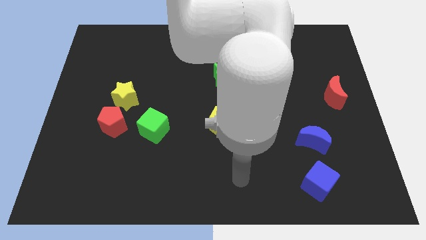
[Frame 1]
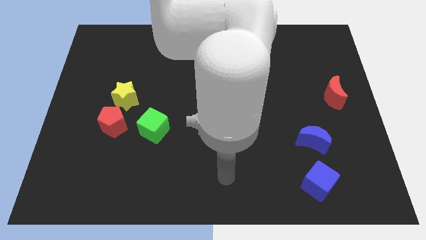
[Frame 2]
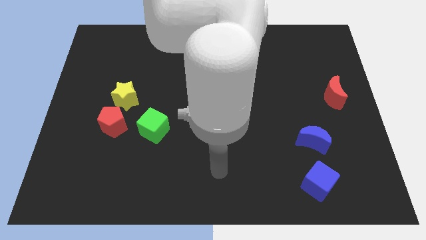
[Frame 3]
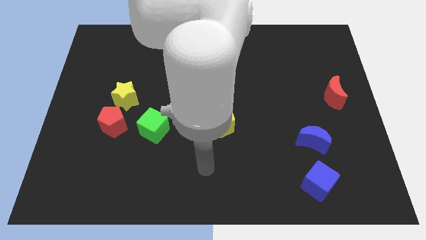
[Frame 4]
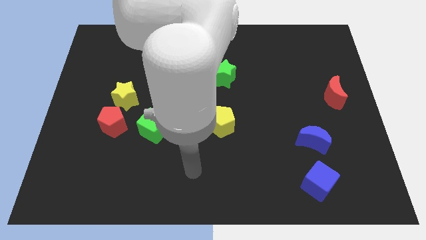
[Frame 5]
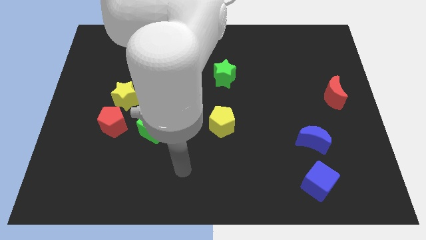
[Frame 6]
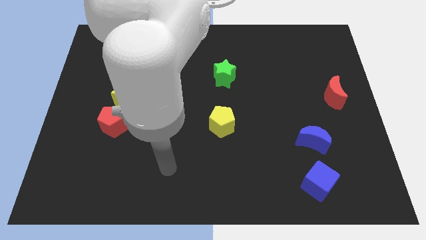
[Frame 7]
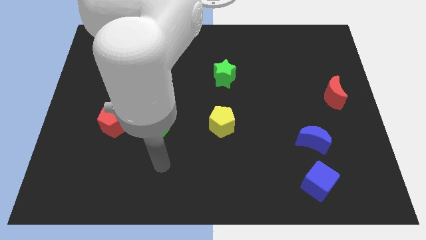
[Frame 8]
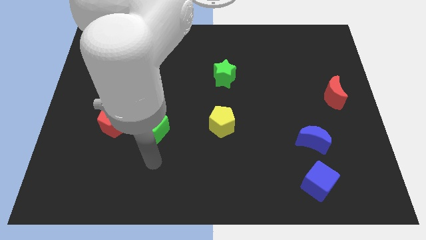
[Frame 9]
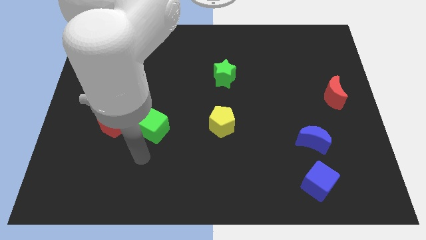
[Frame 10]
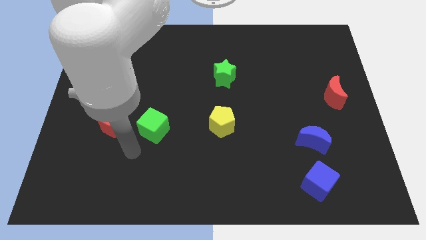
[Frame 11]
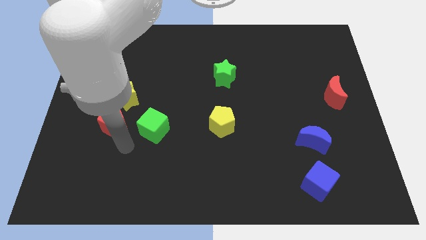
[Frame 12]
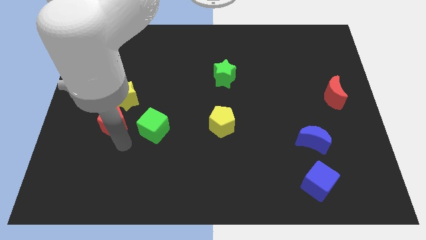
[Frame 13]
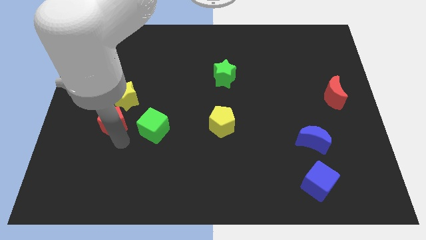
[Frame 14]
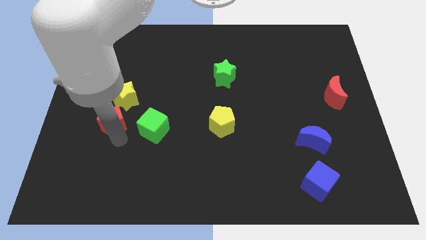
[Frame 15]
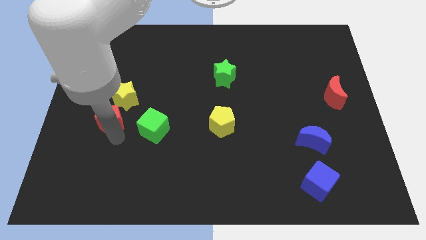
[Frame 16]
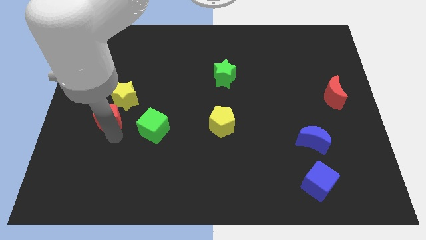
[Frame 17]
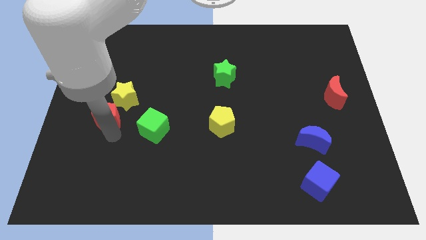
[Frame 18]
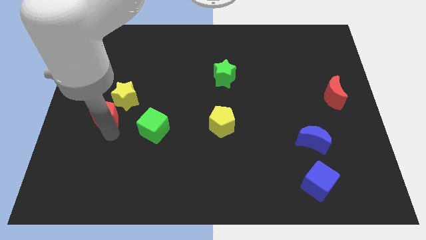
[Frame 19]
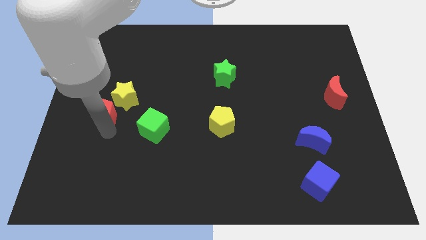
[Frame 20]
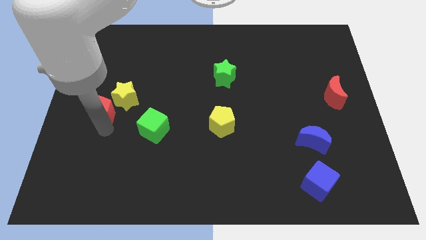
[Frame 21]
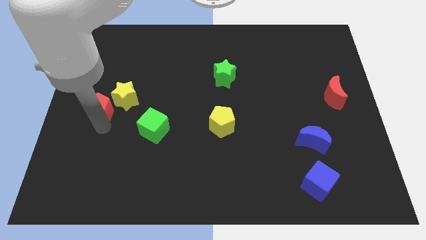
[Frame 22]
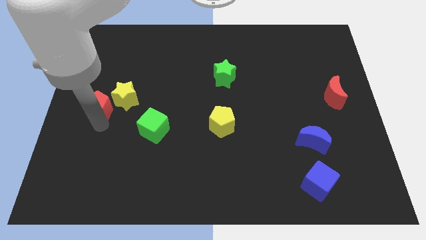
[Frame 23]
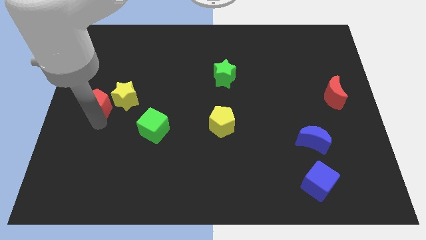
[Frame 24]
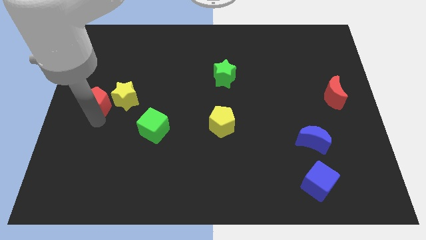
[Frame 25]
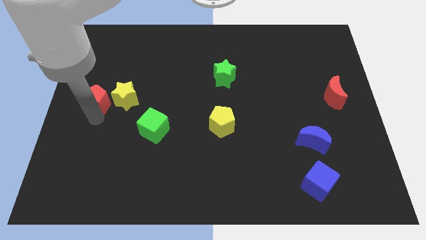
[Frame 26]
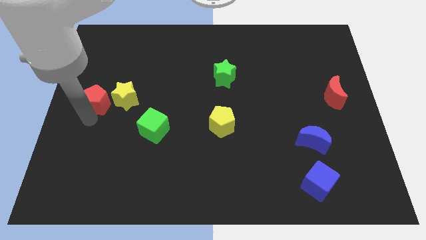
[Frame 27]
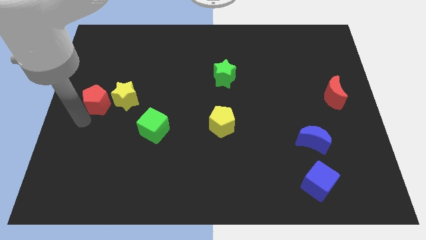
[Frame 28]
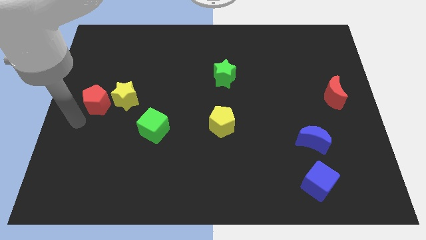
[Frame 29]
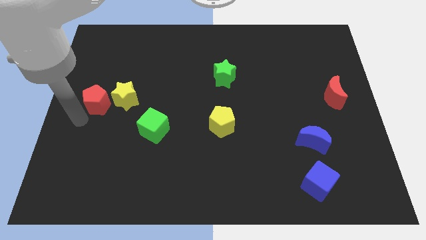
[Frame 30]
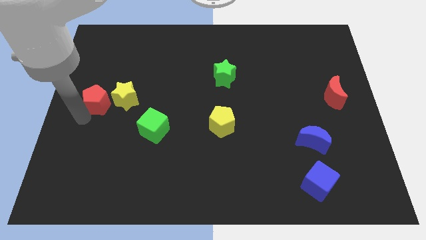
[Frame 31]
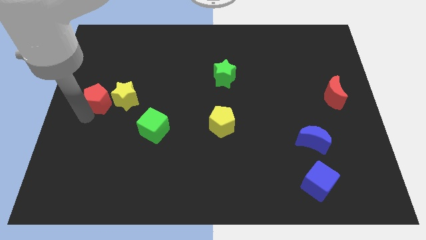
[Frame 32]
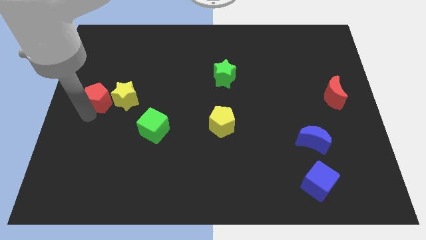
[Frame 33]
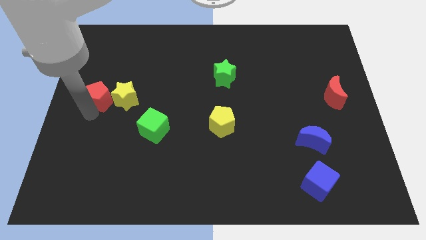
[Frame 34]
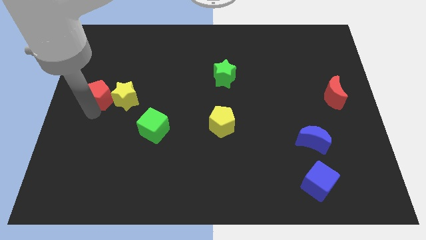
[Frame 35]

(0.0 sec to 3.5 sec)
move the red pentagon a little up

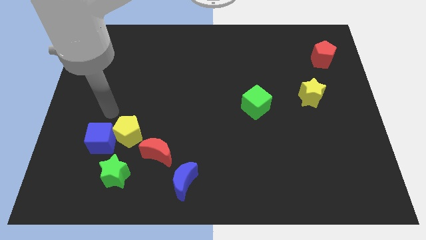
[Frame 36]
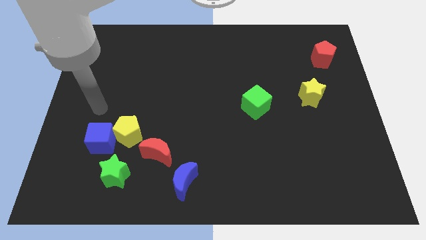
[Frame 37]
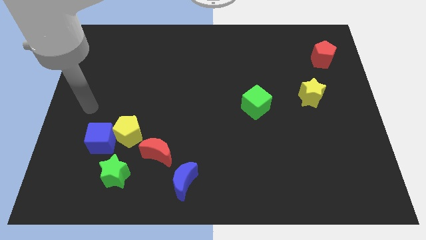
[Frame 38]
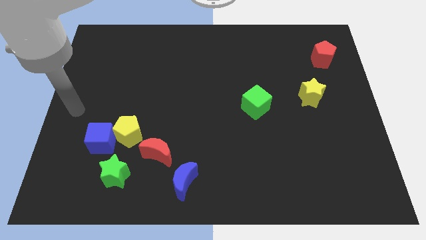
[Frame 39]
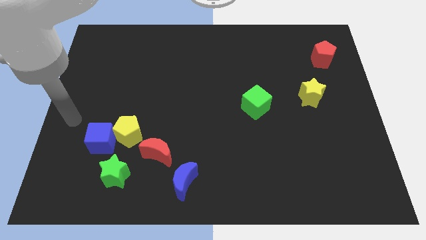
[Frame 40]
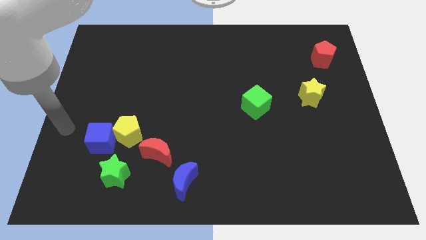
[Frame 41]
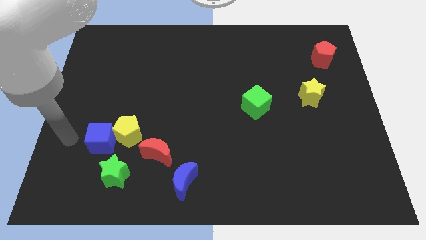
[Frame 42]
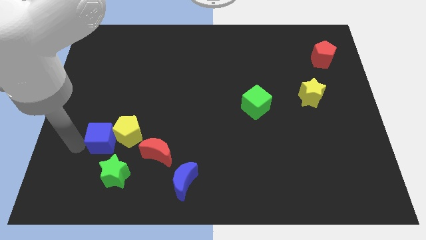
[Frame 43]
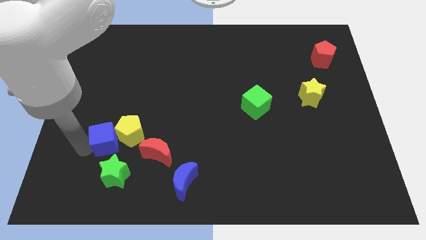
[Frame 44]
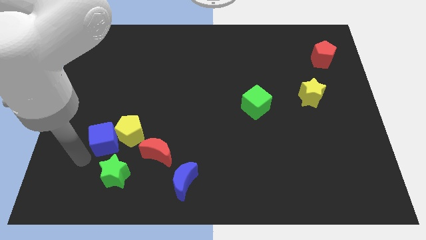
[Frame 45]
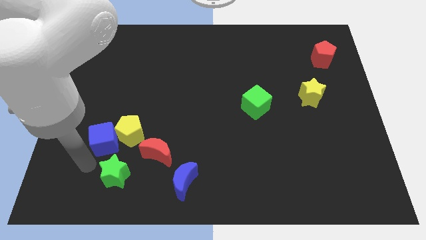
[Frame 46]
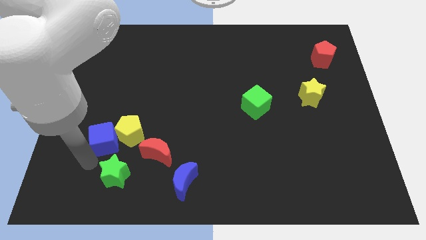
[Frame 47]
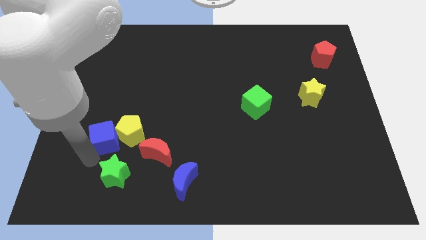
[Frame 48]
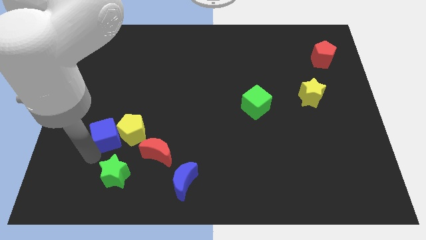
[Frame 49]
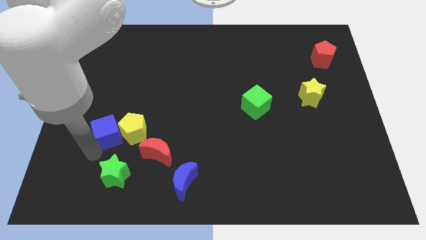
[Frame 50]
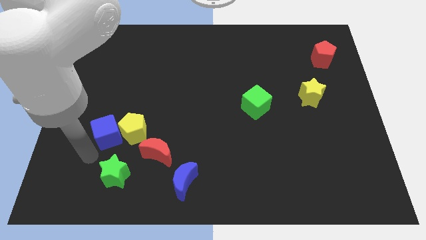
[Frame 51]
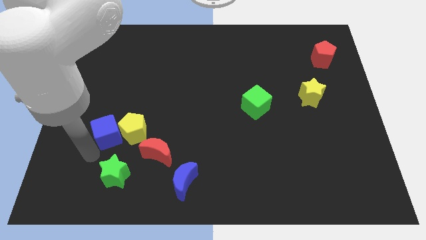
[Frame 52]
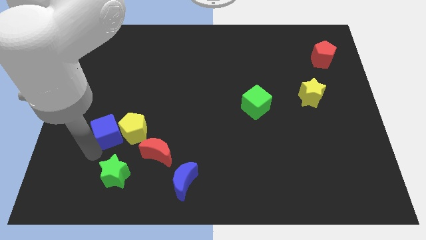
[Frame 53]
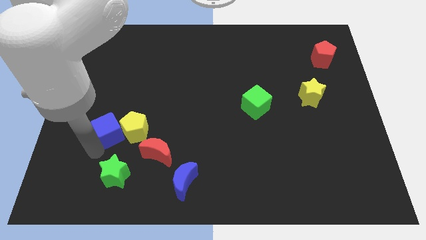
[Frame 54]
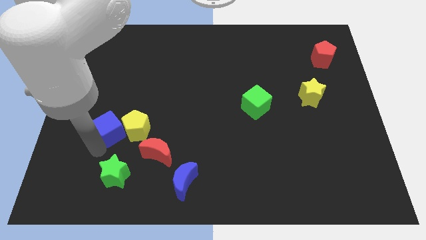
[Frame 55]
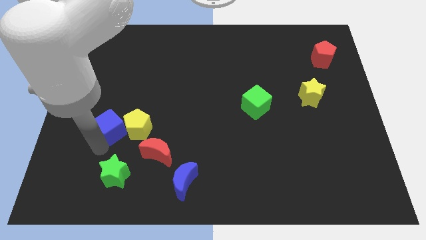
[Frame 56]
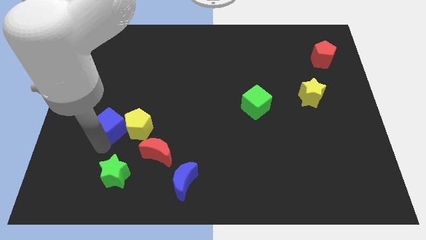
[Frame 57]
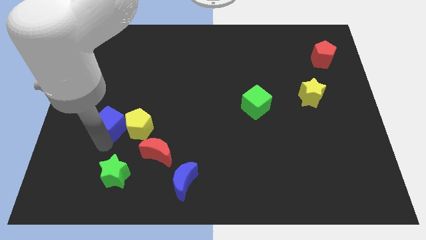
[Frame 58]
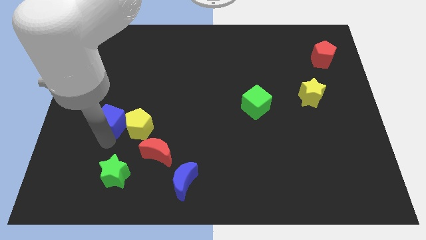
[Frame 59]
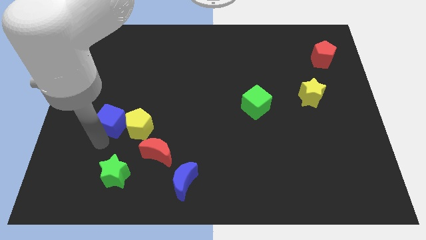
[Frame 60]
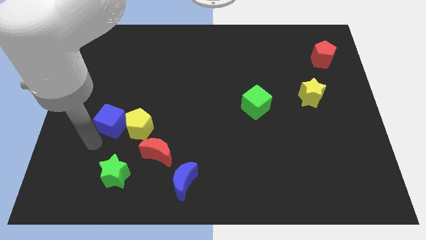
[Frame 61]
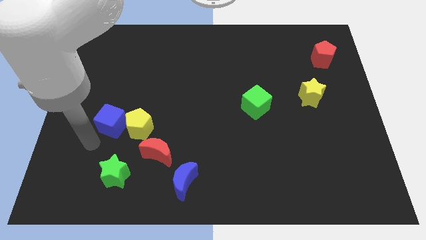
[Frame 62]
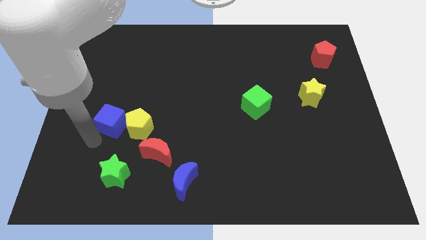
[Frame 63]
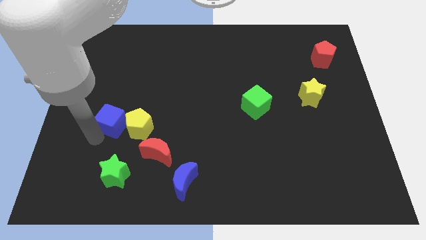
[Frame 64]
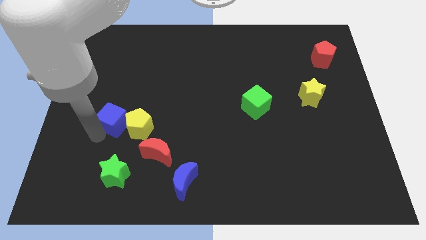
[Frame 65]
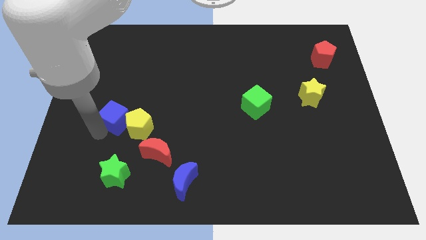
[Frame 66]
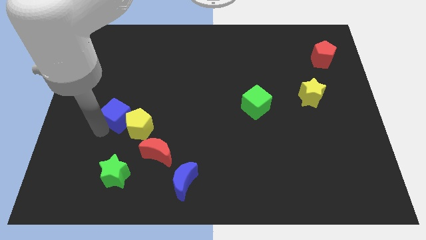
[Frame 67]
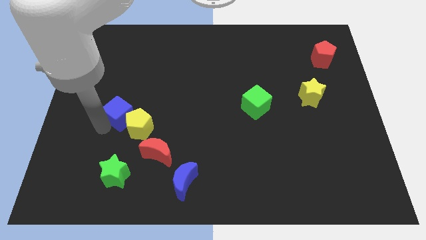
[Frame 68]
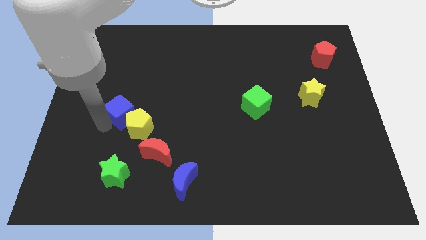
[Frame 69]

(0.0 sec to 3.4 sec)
move the blue cube diagonally upwards and right a little bit

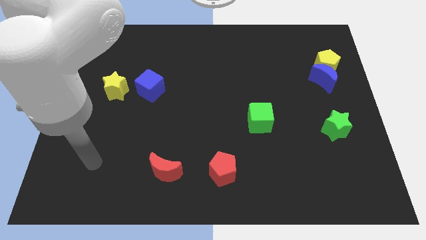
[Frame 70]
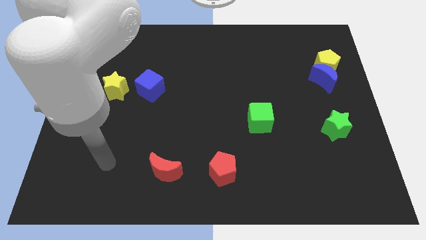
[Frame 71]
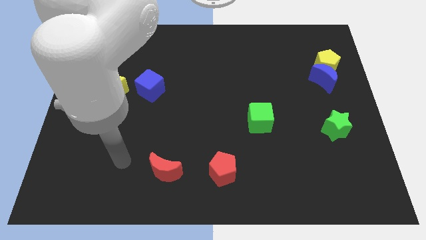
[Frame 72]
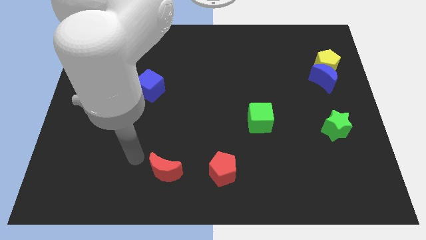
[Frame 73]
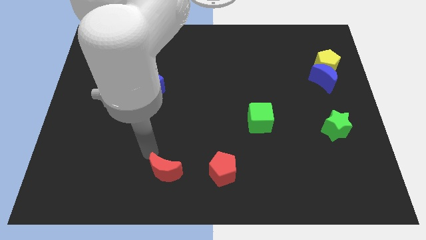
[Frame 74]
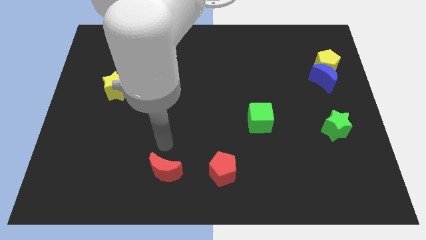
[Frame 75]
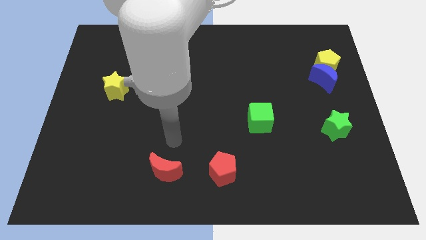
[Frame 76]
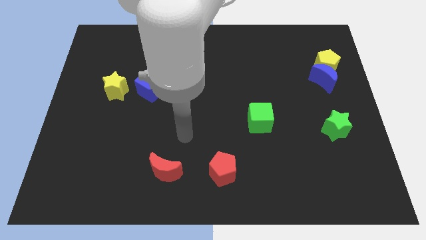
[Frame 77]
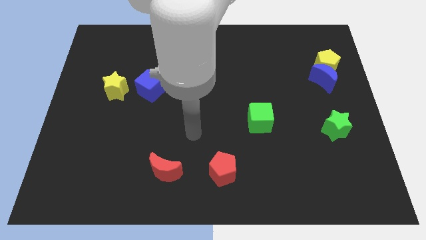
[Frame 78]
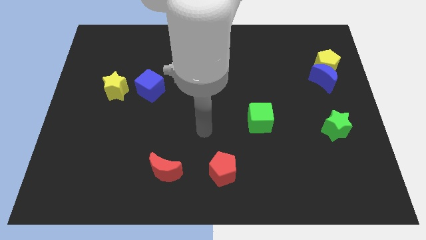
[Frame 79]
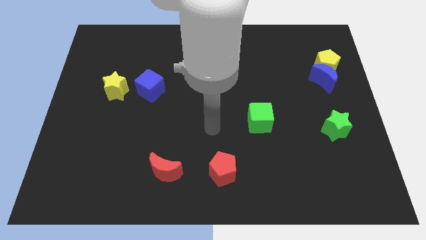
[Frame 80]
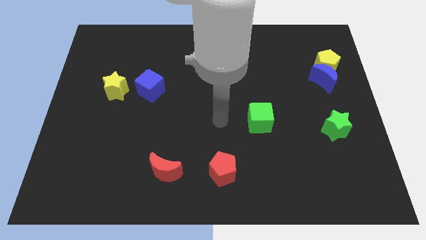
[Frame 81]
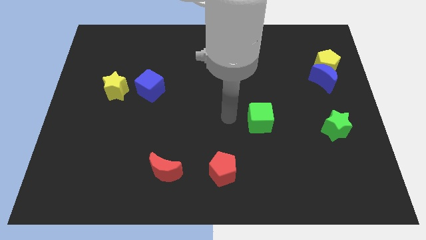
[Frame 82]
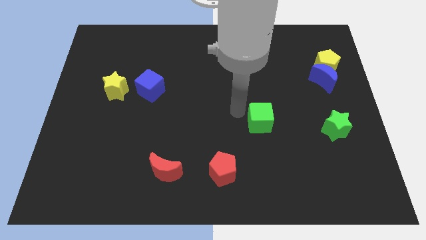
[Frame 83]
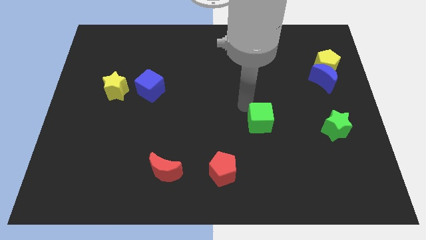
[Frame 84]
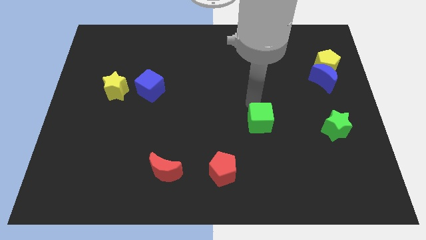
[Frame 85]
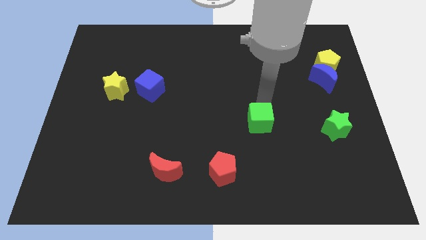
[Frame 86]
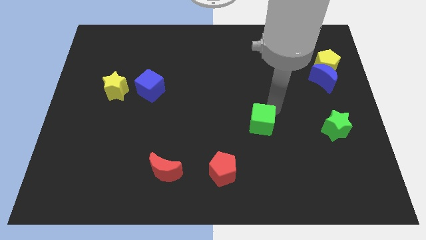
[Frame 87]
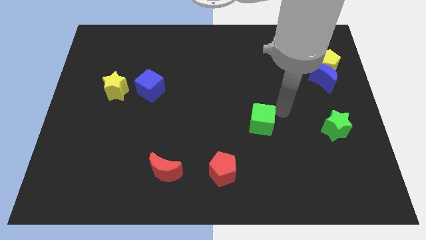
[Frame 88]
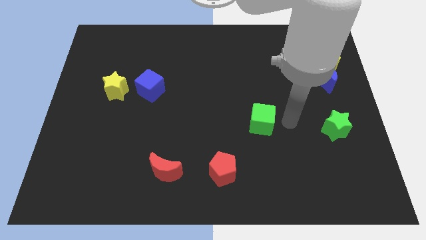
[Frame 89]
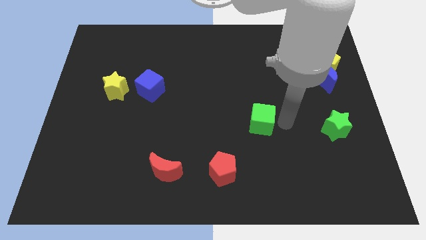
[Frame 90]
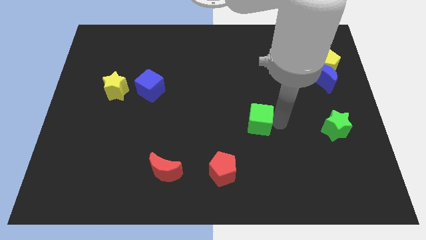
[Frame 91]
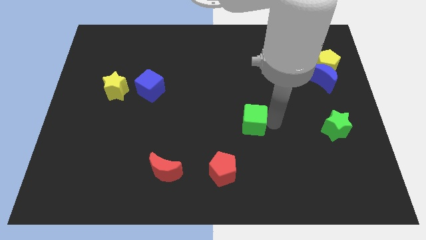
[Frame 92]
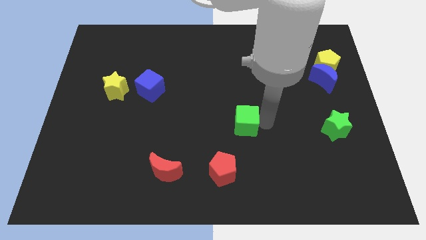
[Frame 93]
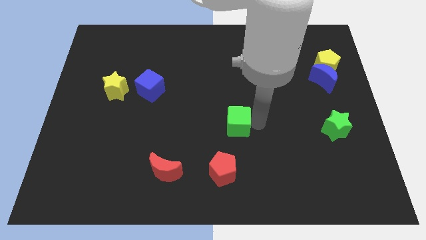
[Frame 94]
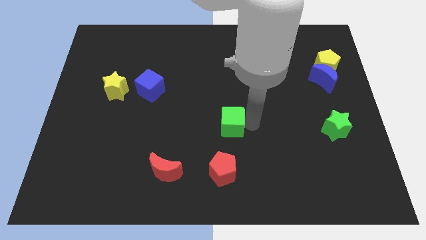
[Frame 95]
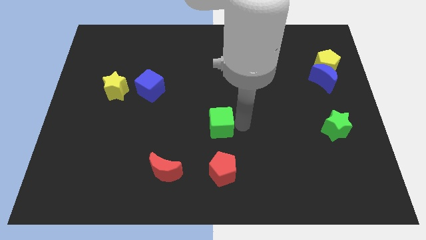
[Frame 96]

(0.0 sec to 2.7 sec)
slightly move the green cube left
